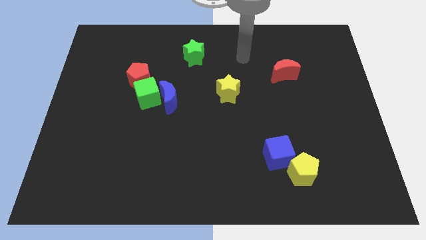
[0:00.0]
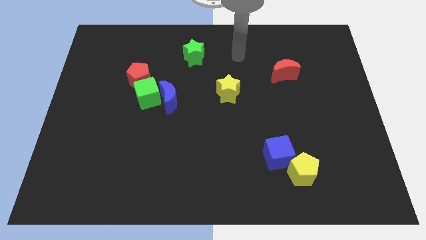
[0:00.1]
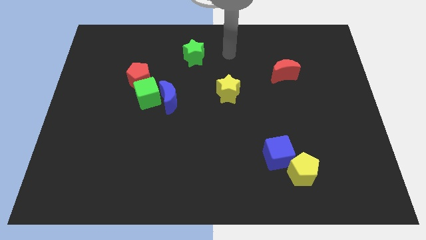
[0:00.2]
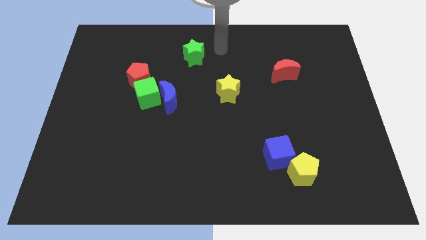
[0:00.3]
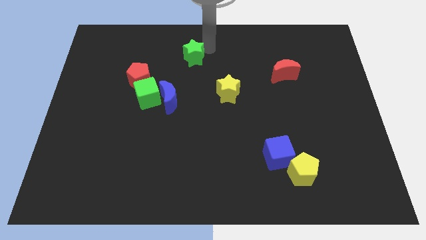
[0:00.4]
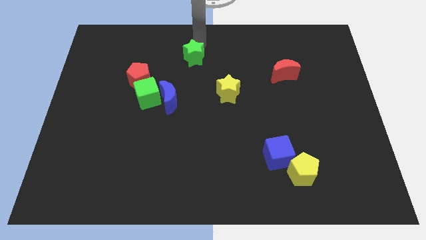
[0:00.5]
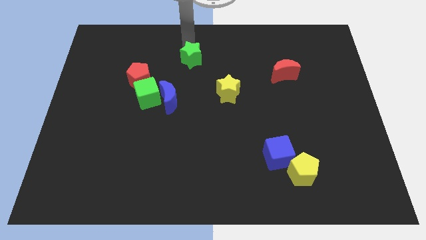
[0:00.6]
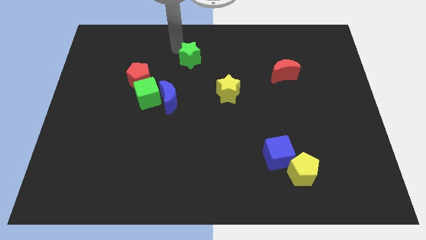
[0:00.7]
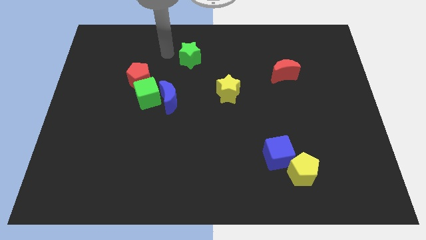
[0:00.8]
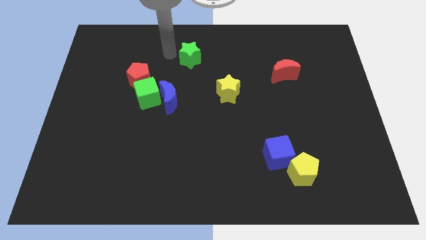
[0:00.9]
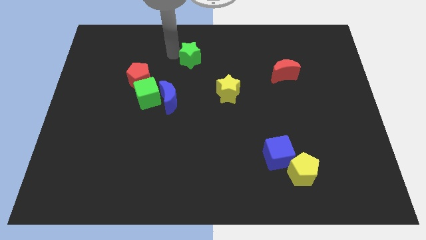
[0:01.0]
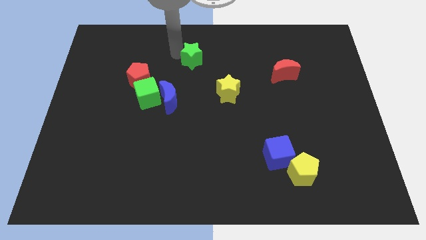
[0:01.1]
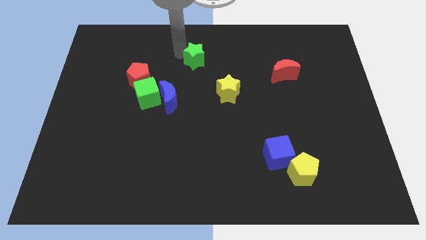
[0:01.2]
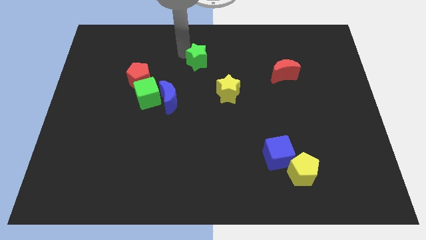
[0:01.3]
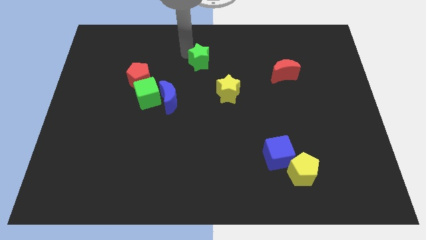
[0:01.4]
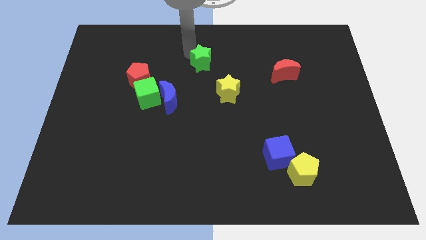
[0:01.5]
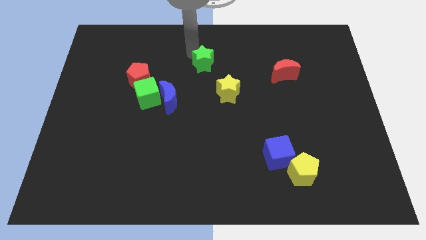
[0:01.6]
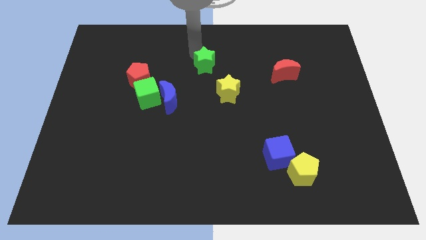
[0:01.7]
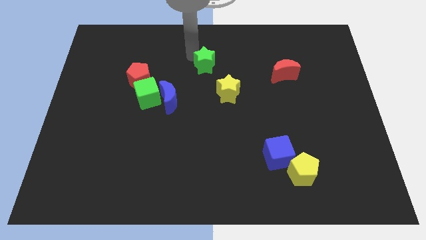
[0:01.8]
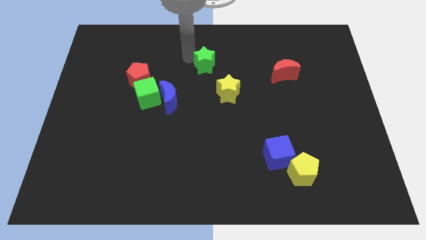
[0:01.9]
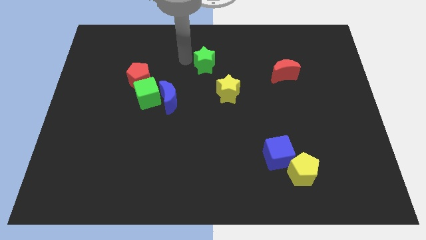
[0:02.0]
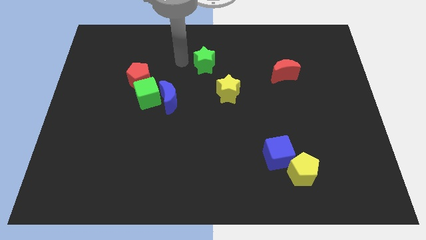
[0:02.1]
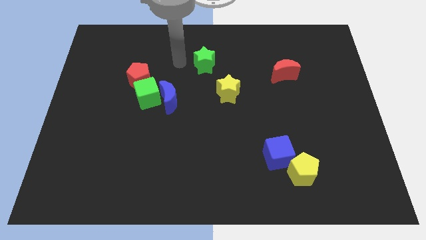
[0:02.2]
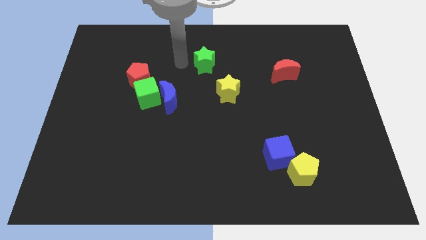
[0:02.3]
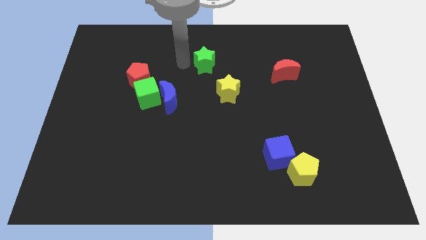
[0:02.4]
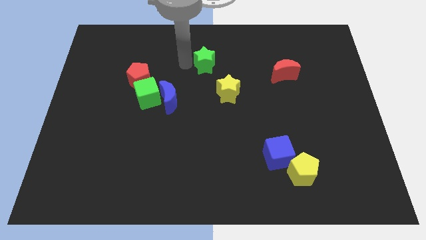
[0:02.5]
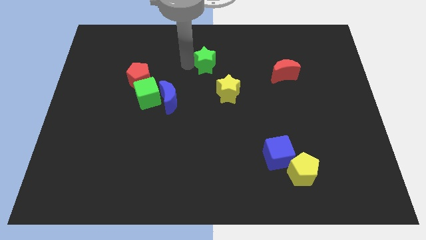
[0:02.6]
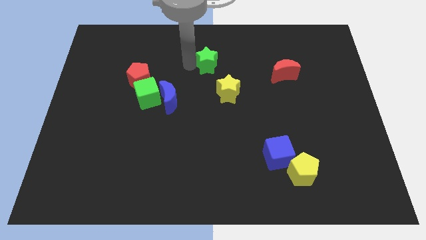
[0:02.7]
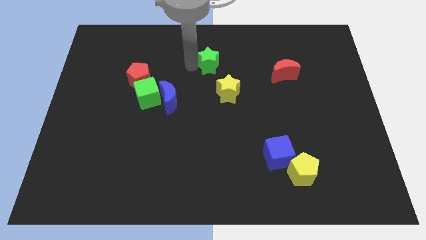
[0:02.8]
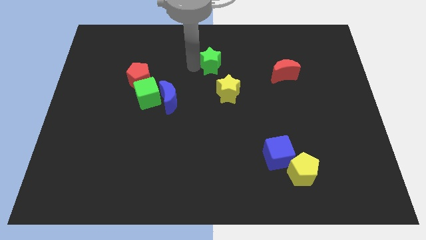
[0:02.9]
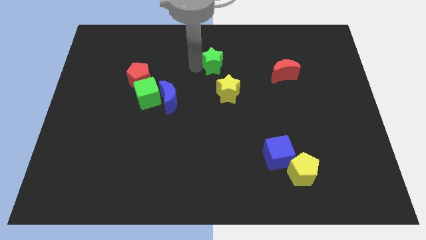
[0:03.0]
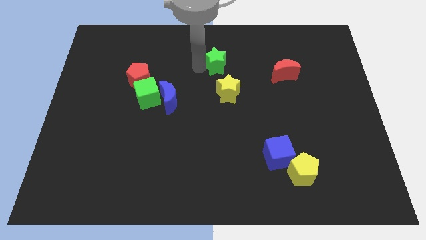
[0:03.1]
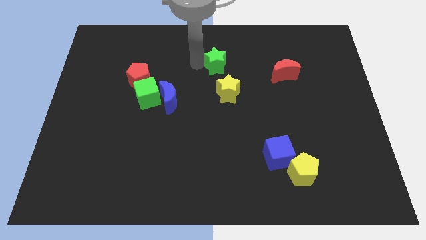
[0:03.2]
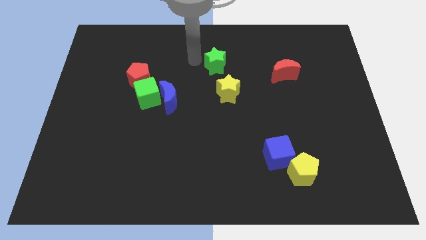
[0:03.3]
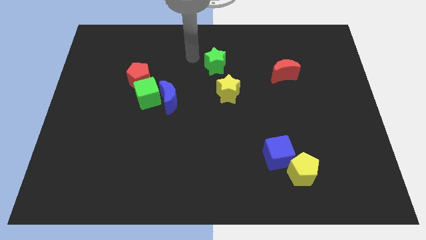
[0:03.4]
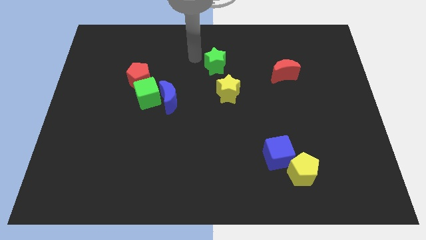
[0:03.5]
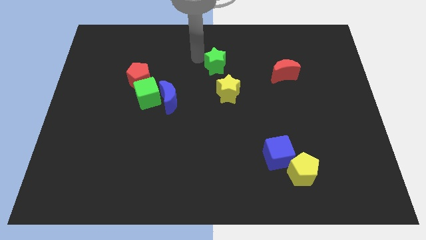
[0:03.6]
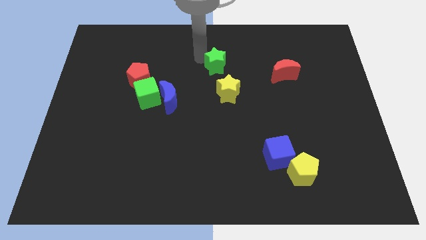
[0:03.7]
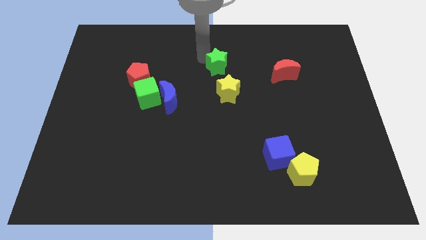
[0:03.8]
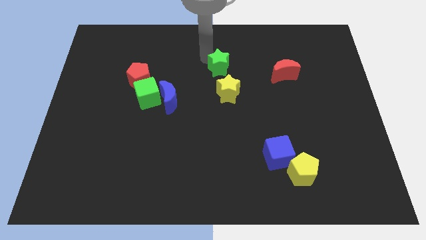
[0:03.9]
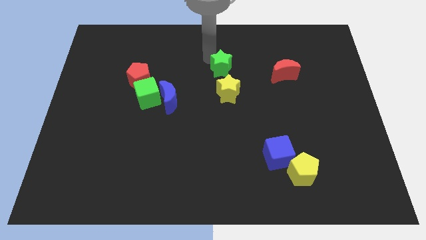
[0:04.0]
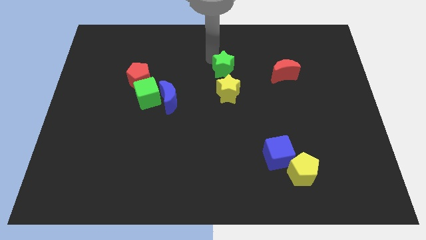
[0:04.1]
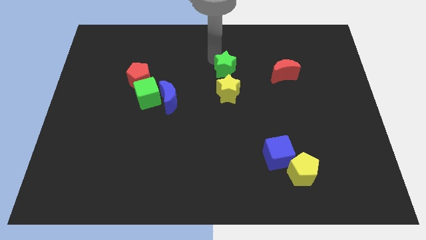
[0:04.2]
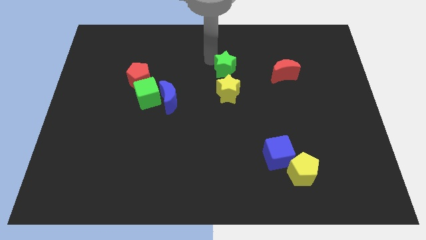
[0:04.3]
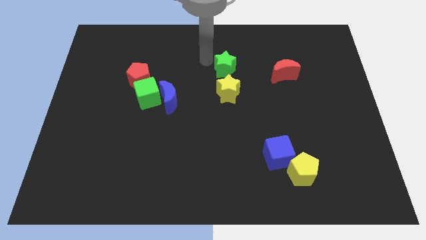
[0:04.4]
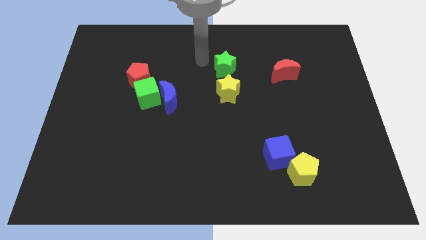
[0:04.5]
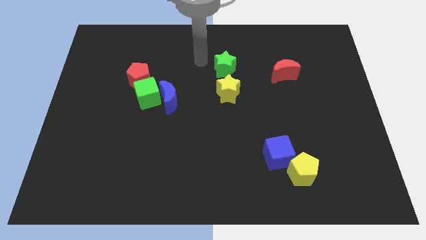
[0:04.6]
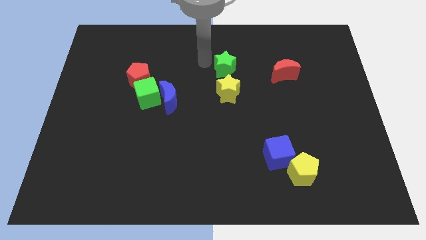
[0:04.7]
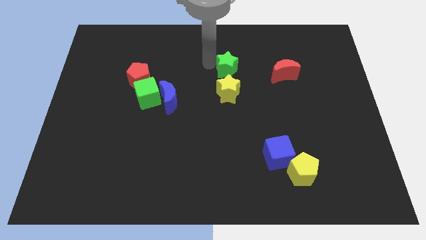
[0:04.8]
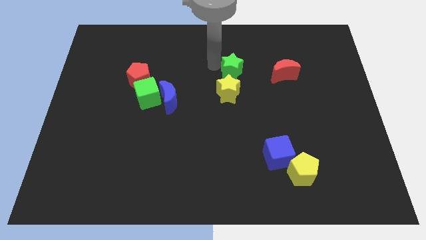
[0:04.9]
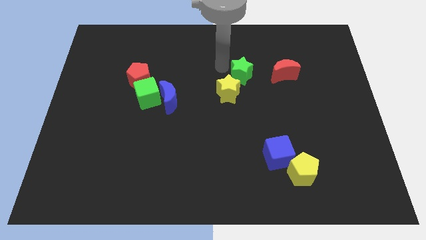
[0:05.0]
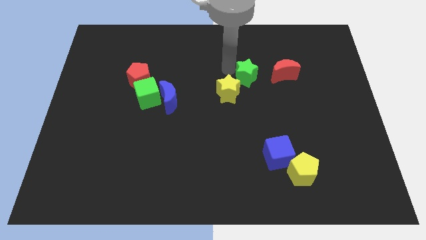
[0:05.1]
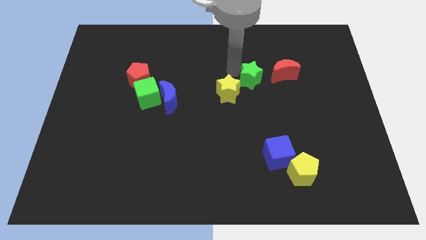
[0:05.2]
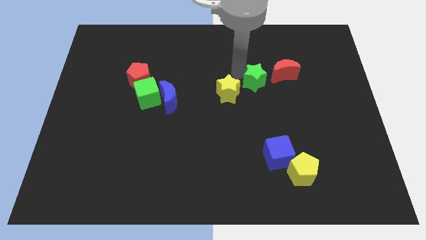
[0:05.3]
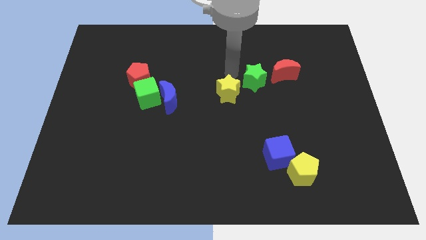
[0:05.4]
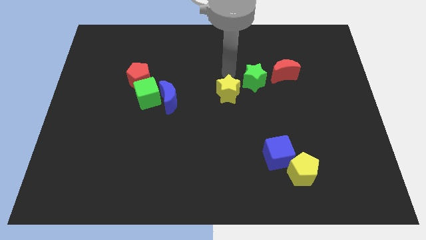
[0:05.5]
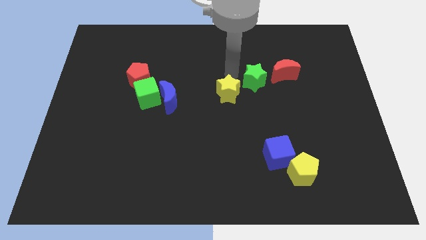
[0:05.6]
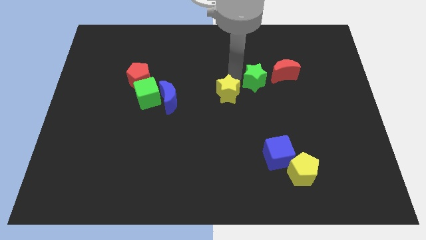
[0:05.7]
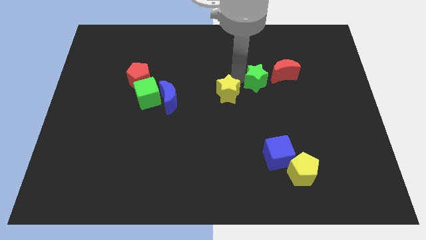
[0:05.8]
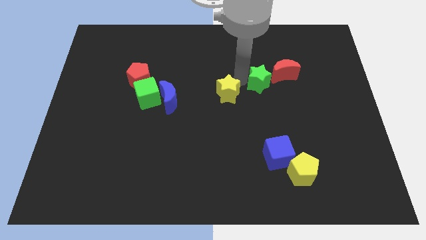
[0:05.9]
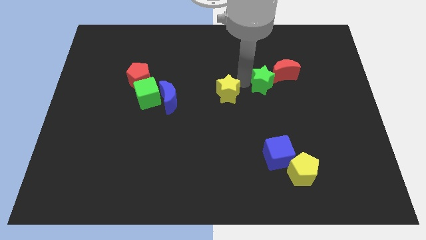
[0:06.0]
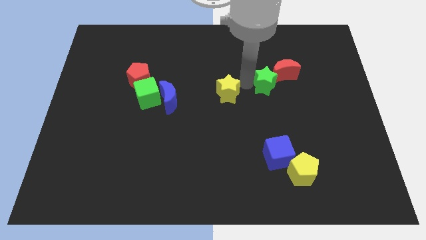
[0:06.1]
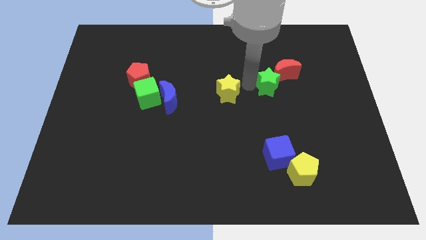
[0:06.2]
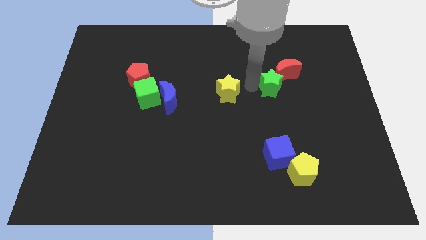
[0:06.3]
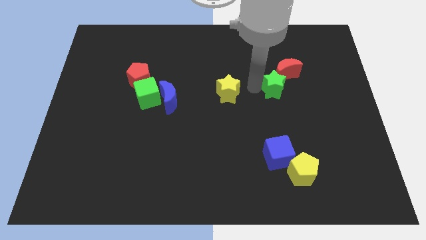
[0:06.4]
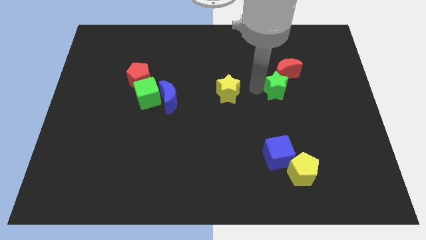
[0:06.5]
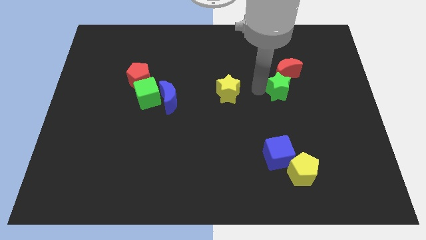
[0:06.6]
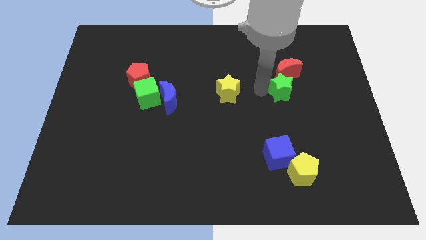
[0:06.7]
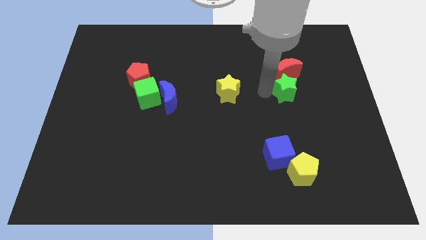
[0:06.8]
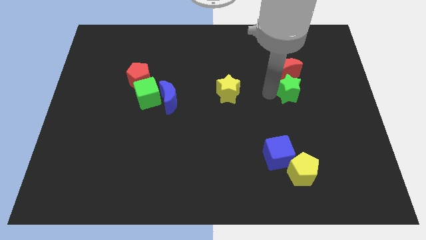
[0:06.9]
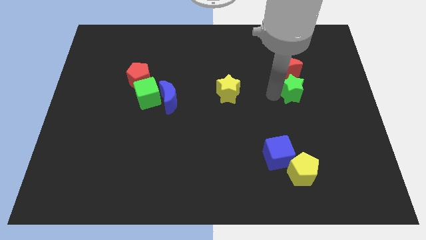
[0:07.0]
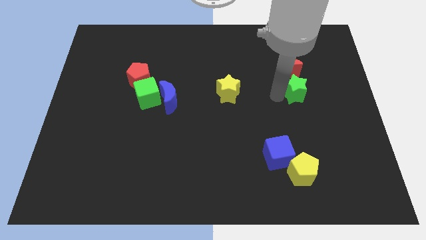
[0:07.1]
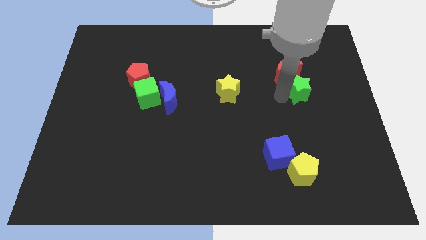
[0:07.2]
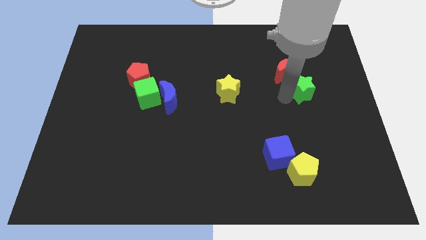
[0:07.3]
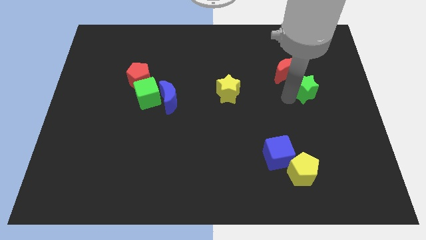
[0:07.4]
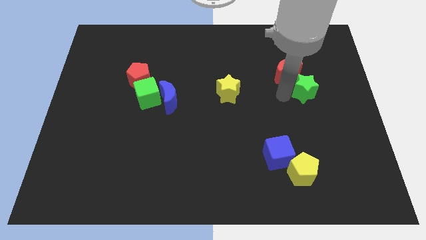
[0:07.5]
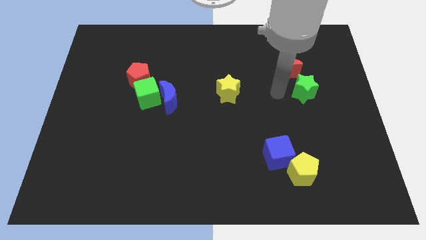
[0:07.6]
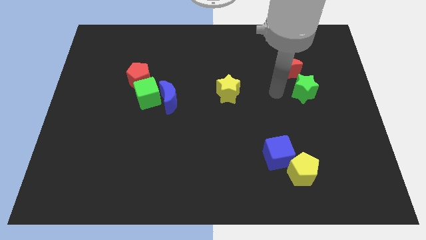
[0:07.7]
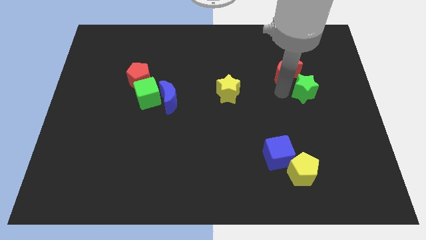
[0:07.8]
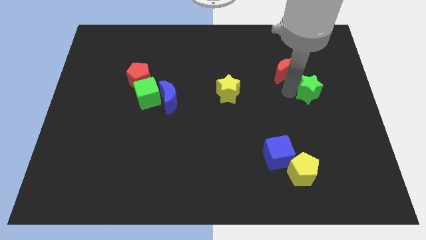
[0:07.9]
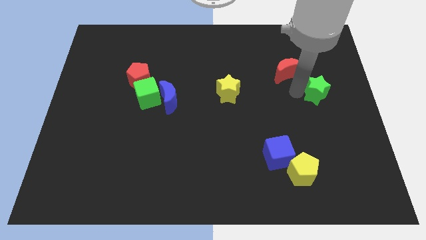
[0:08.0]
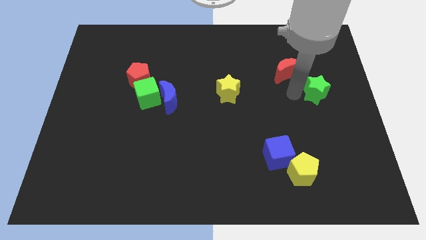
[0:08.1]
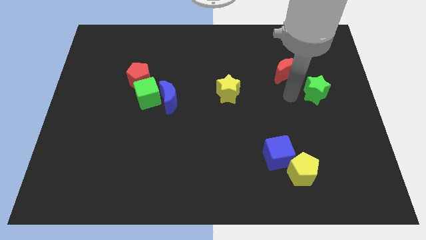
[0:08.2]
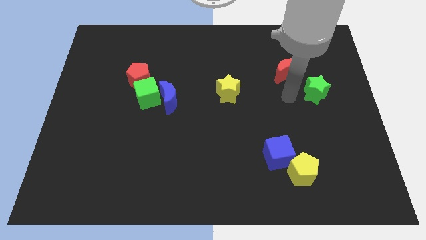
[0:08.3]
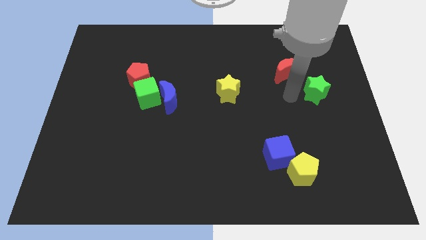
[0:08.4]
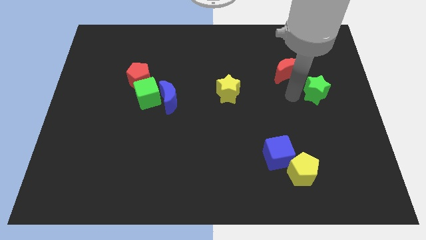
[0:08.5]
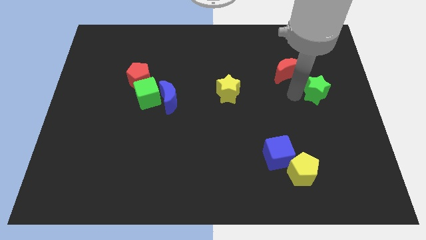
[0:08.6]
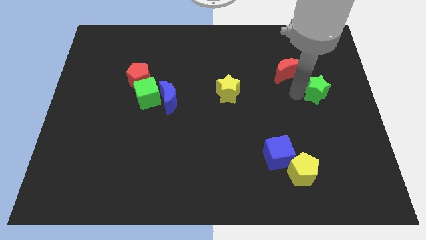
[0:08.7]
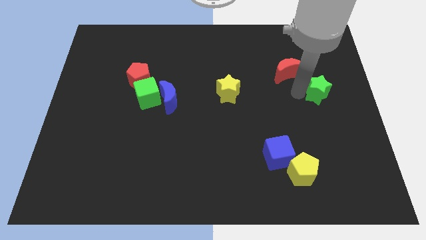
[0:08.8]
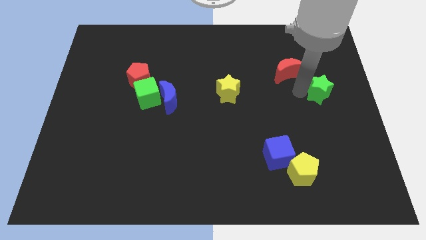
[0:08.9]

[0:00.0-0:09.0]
slide the green star to the right side
